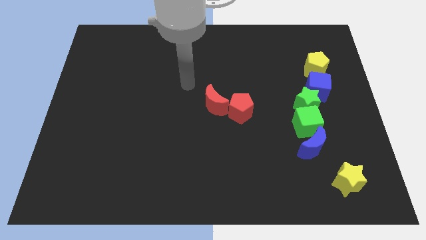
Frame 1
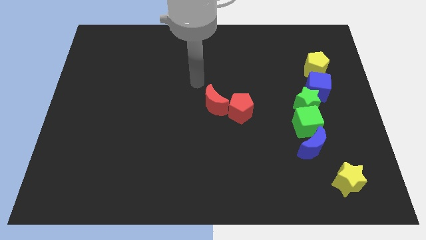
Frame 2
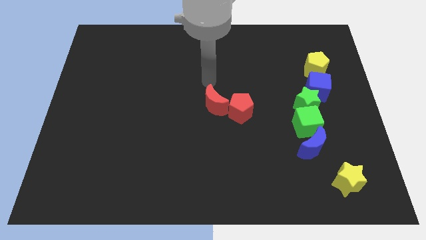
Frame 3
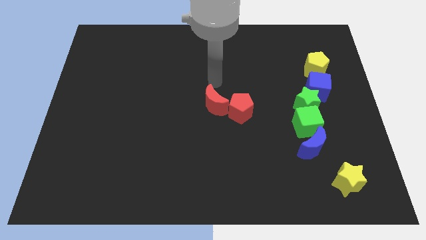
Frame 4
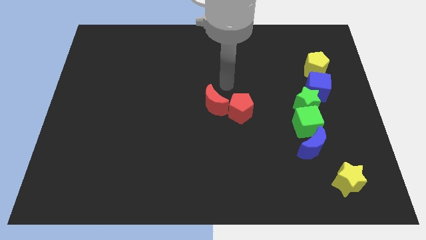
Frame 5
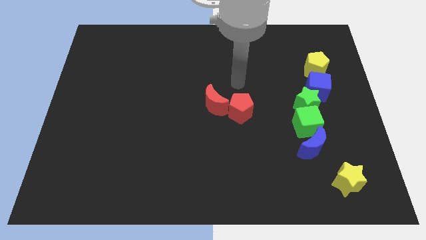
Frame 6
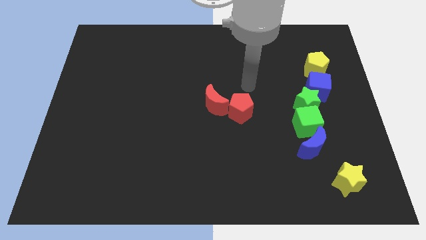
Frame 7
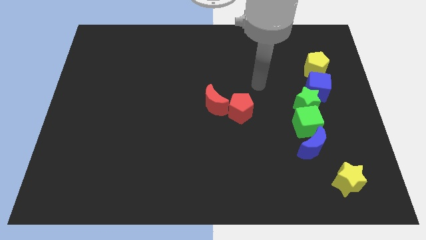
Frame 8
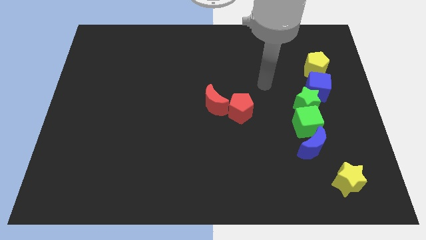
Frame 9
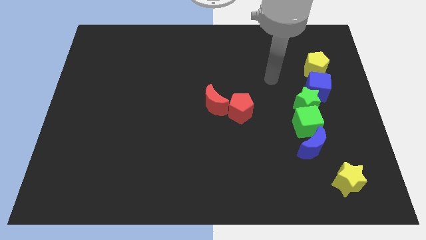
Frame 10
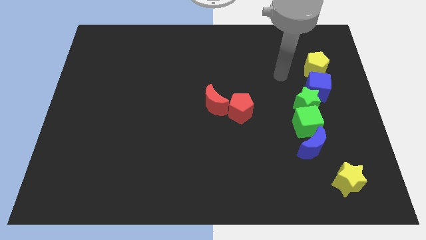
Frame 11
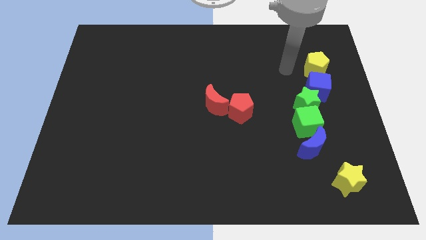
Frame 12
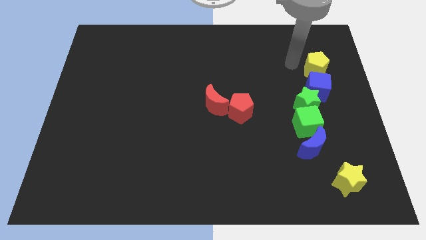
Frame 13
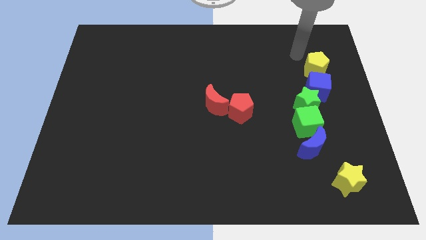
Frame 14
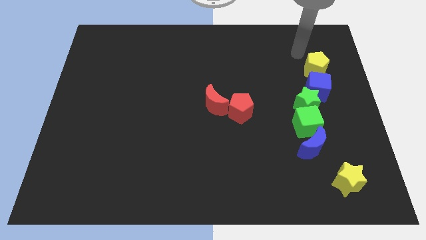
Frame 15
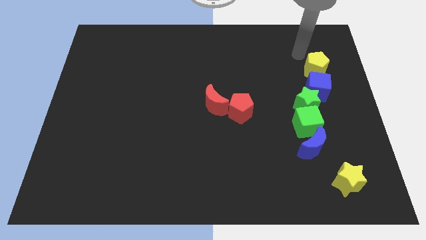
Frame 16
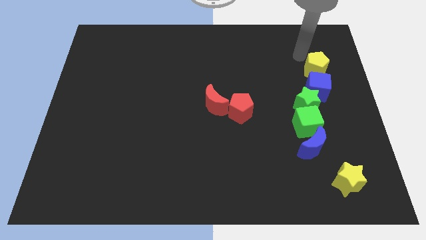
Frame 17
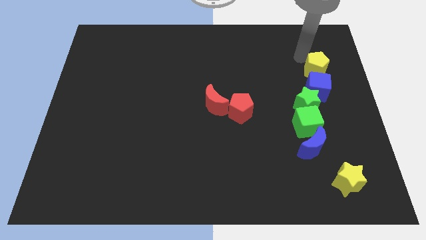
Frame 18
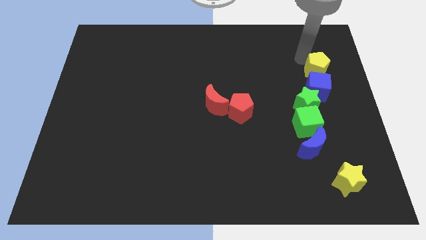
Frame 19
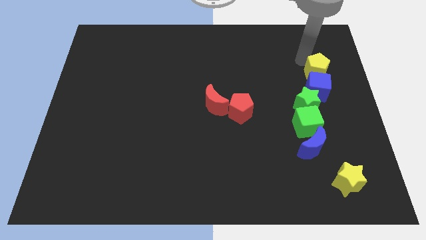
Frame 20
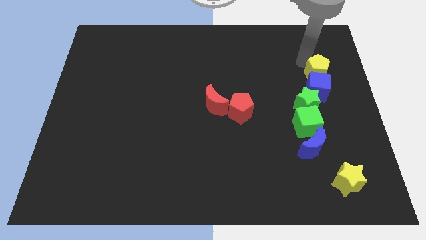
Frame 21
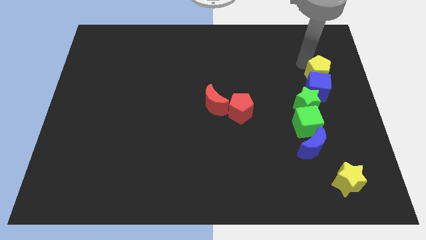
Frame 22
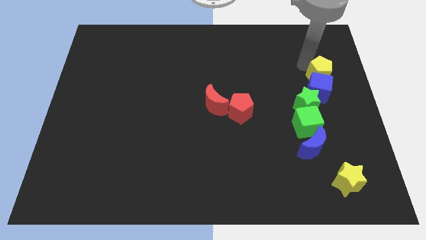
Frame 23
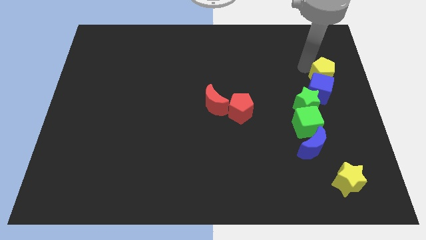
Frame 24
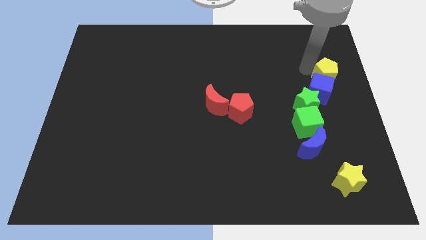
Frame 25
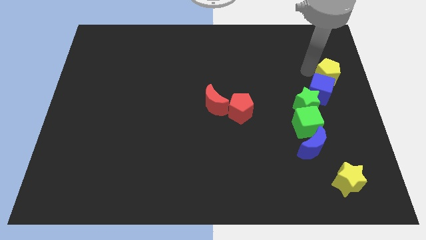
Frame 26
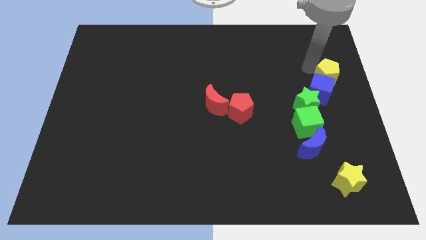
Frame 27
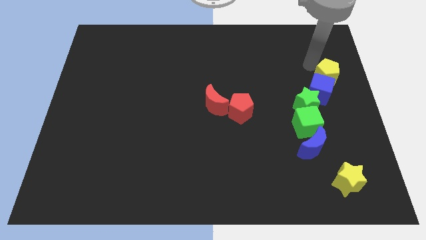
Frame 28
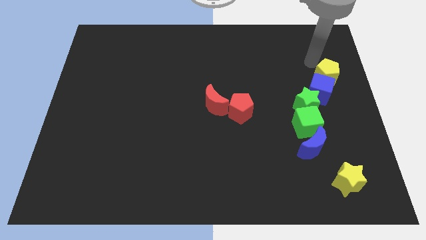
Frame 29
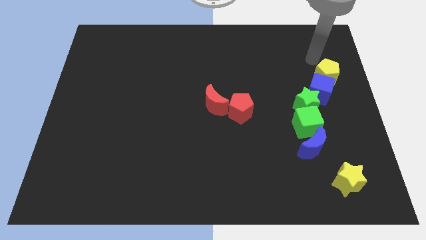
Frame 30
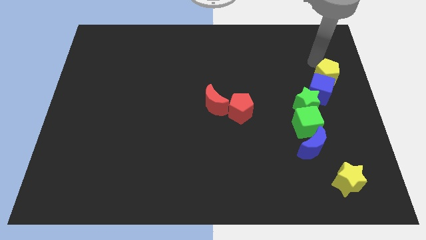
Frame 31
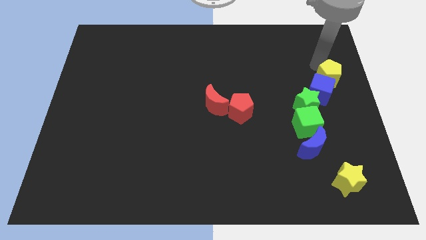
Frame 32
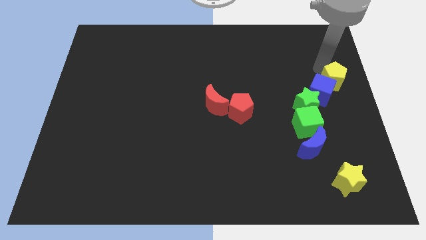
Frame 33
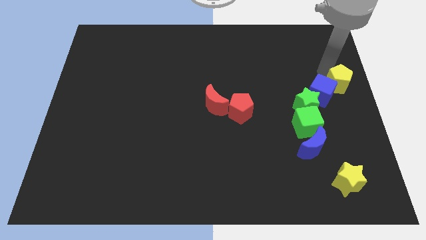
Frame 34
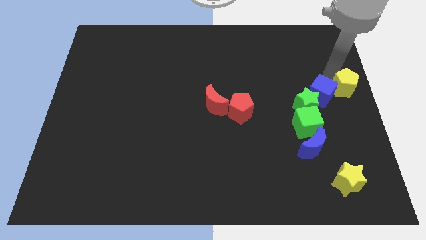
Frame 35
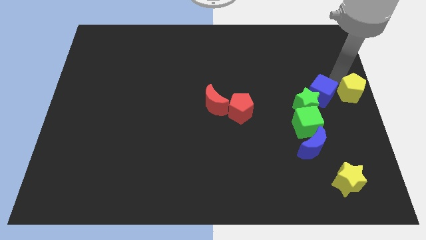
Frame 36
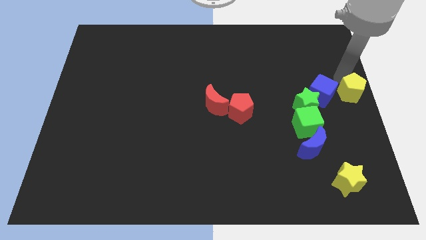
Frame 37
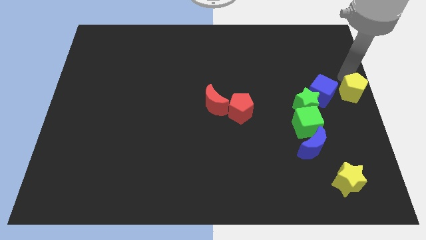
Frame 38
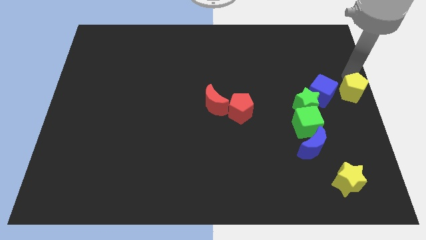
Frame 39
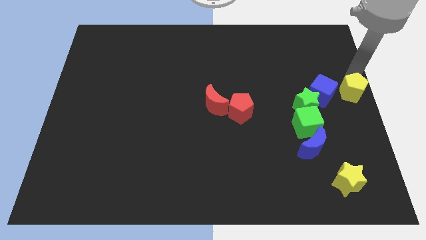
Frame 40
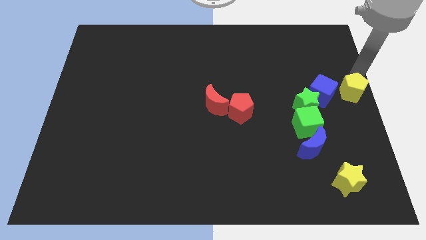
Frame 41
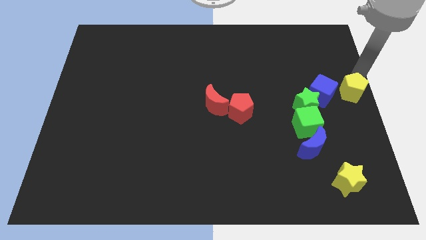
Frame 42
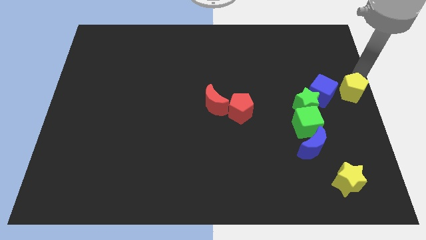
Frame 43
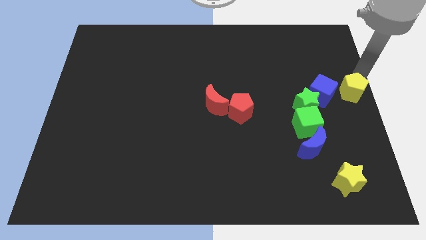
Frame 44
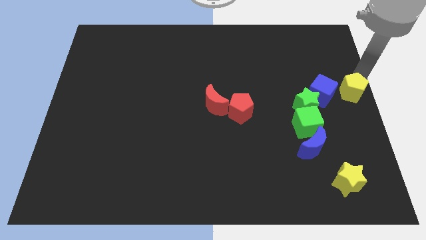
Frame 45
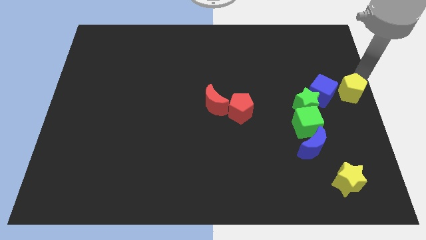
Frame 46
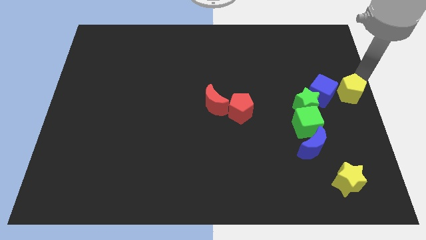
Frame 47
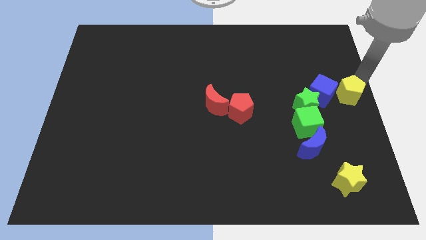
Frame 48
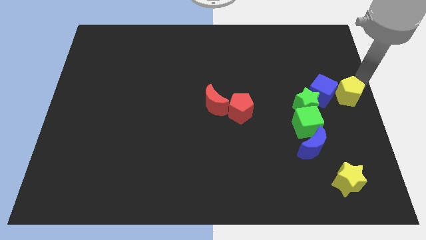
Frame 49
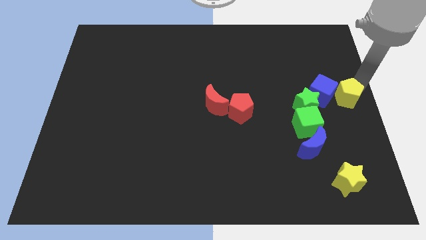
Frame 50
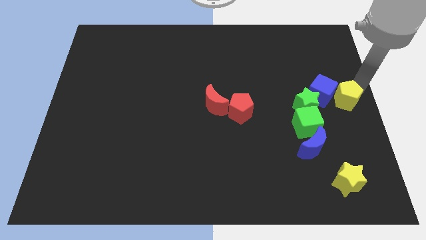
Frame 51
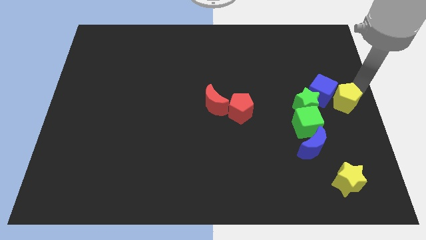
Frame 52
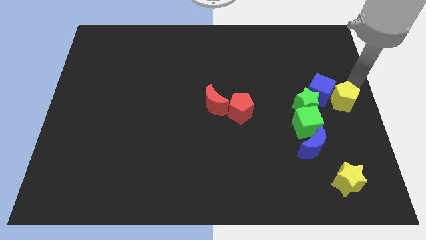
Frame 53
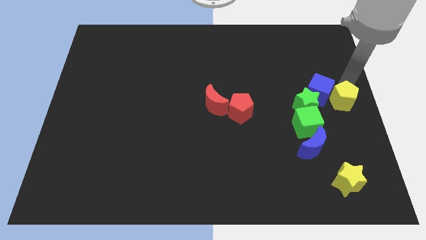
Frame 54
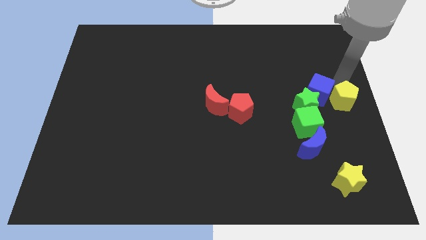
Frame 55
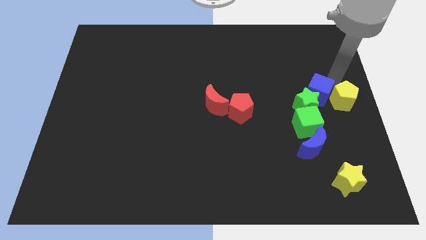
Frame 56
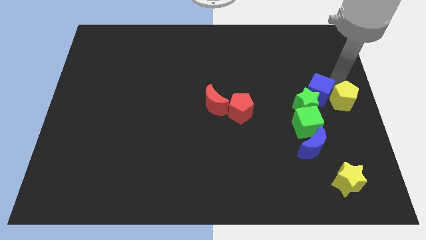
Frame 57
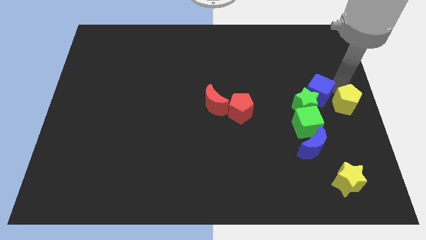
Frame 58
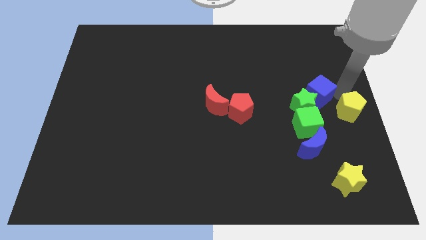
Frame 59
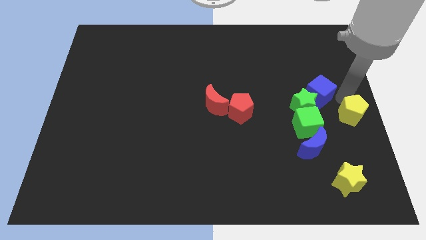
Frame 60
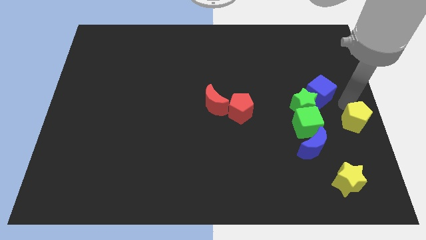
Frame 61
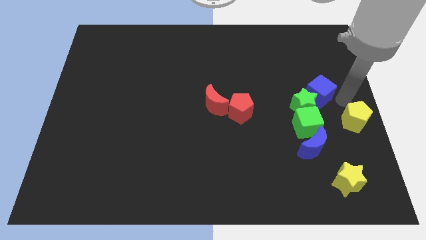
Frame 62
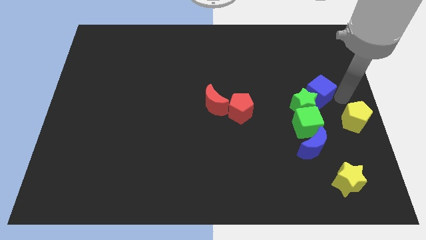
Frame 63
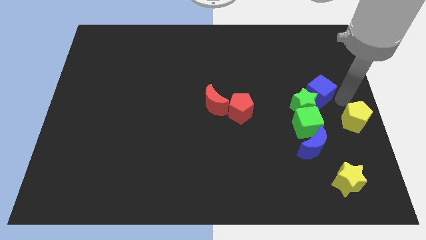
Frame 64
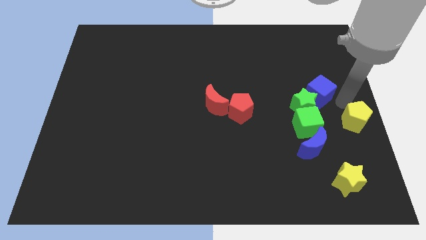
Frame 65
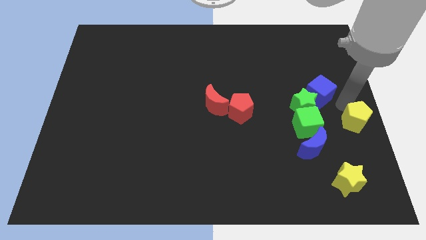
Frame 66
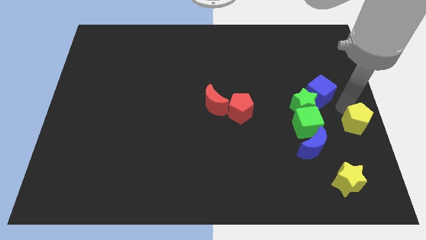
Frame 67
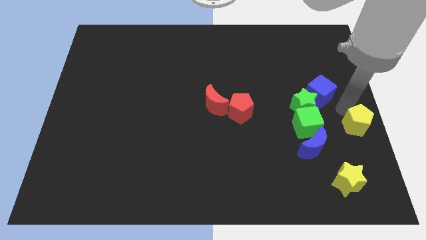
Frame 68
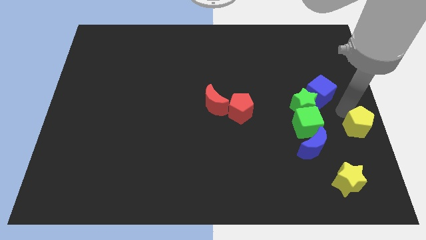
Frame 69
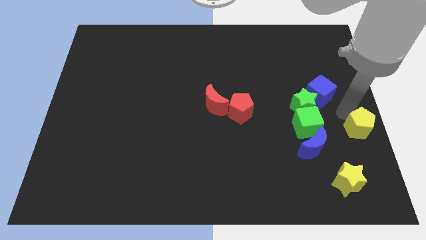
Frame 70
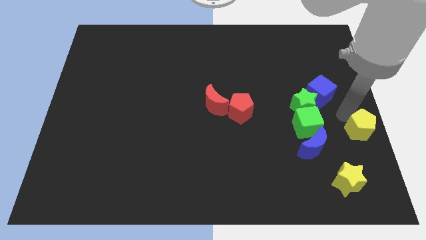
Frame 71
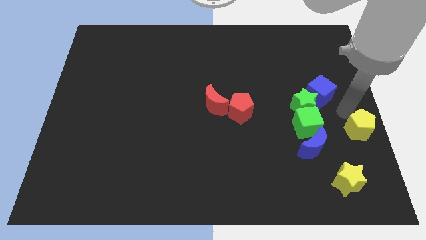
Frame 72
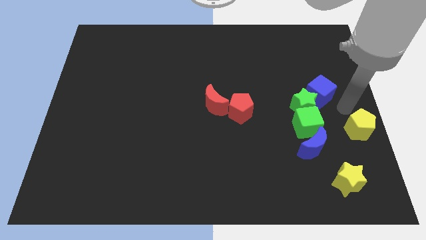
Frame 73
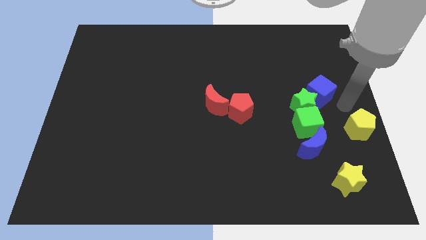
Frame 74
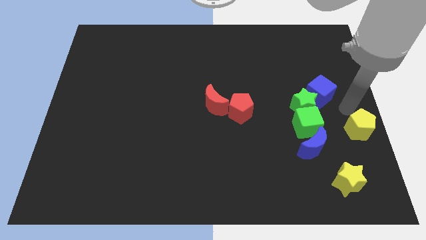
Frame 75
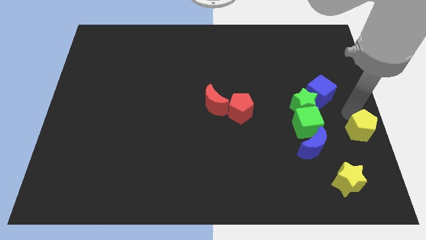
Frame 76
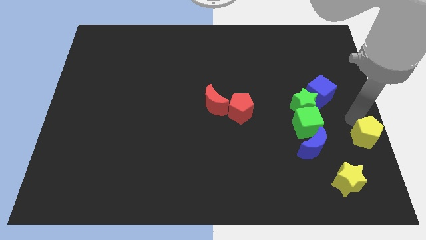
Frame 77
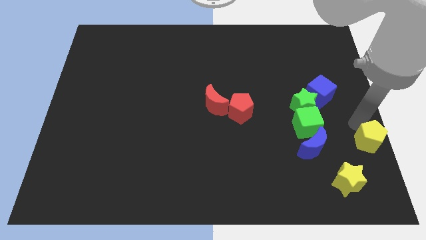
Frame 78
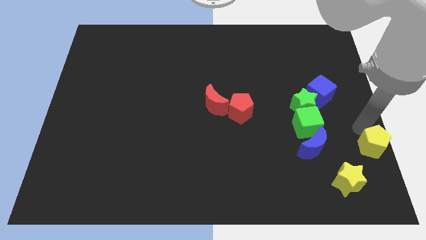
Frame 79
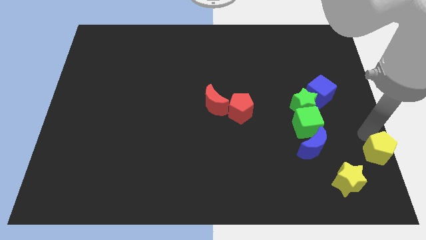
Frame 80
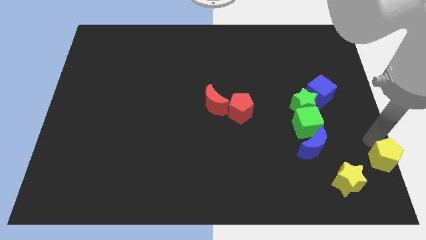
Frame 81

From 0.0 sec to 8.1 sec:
move the yellow pentagon to the lower right corner
